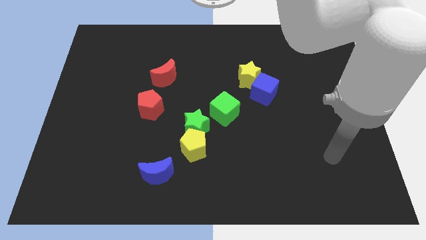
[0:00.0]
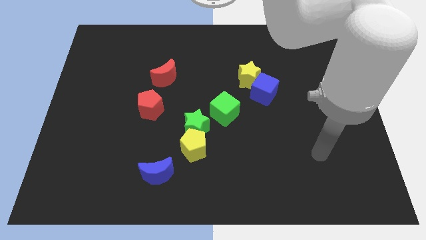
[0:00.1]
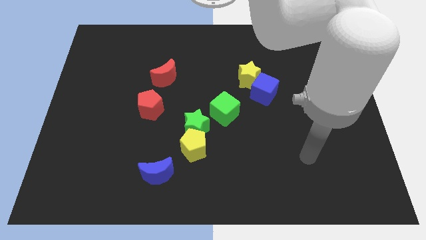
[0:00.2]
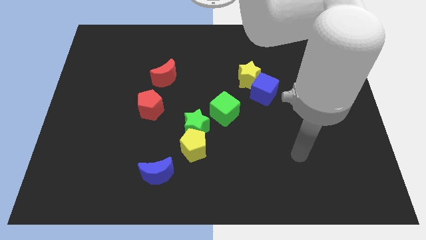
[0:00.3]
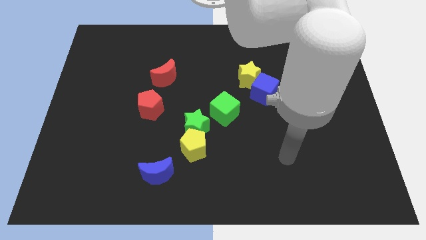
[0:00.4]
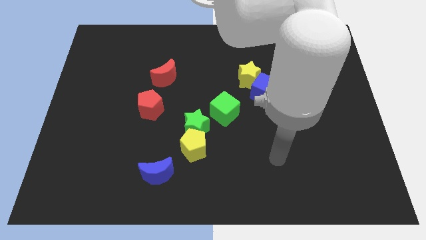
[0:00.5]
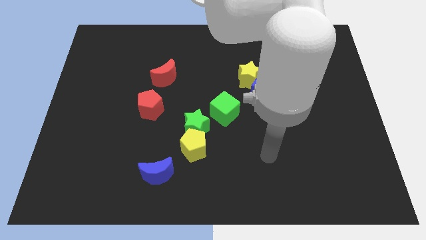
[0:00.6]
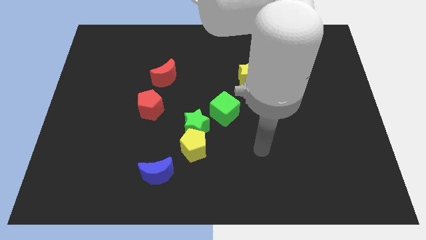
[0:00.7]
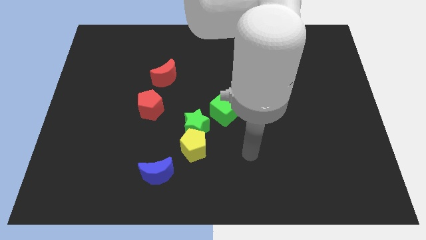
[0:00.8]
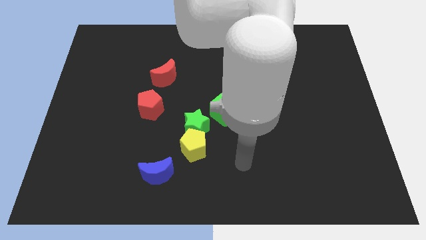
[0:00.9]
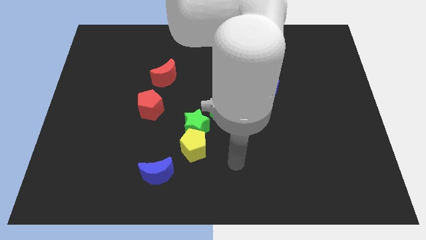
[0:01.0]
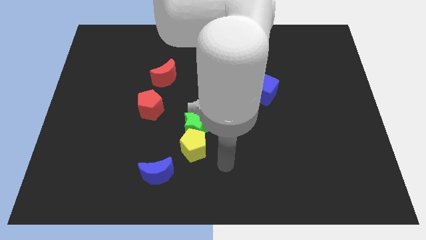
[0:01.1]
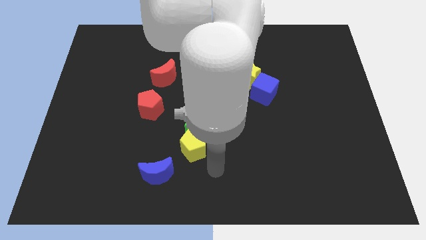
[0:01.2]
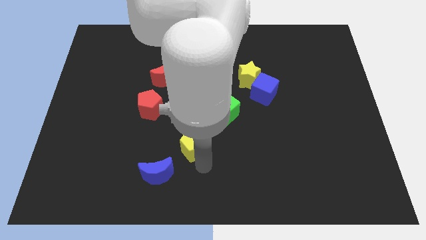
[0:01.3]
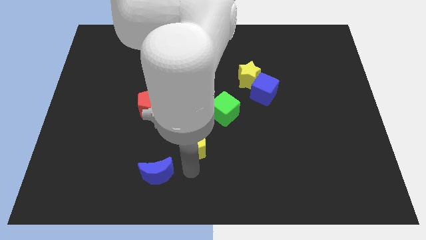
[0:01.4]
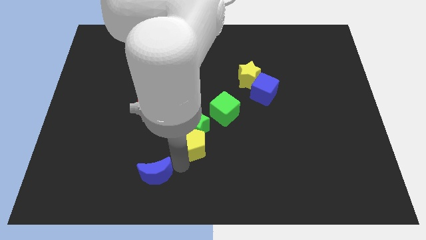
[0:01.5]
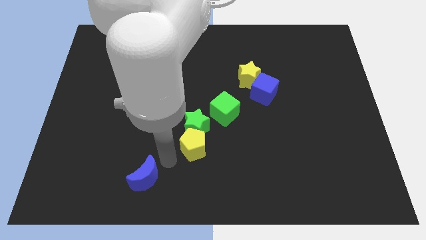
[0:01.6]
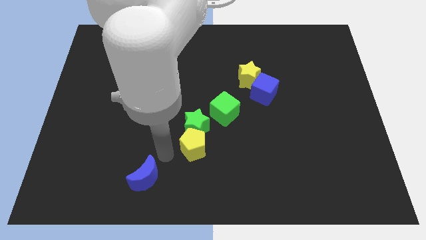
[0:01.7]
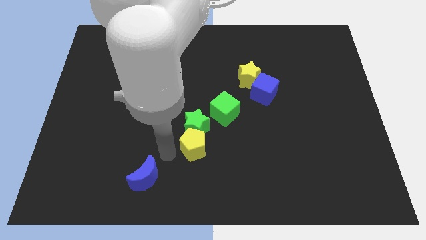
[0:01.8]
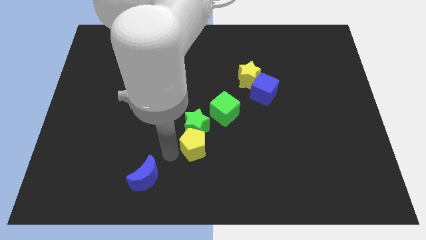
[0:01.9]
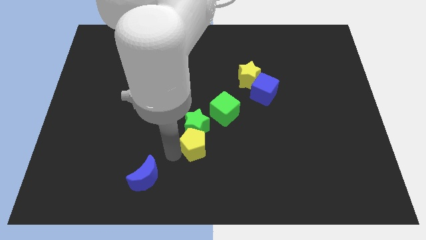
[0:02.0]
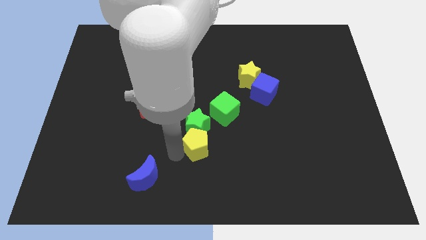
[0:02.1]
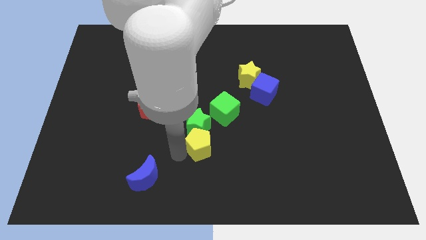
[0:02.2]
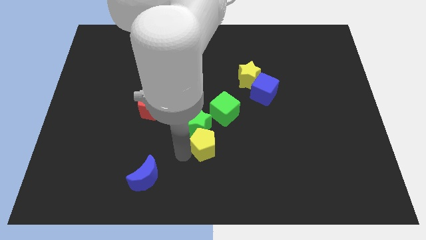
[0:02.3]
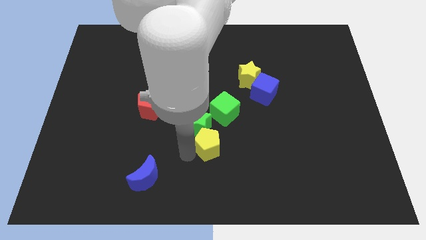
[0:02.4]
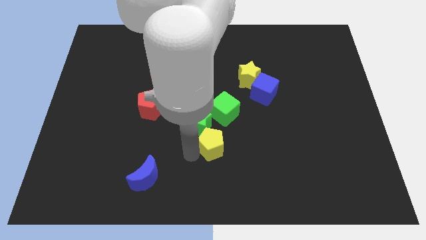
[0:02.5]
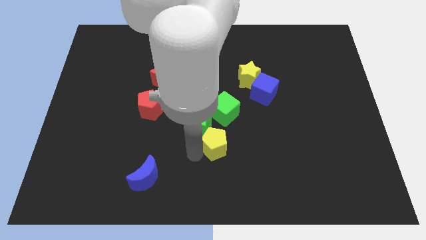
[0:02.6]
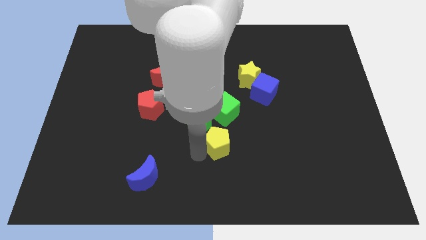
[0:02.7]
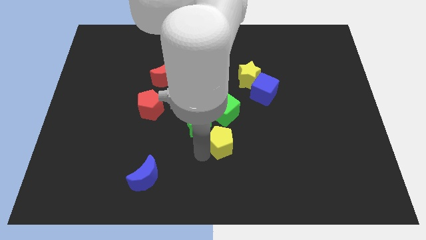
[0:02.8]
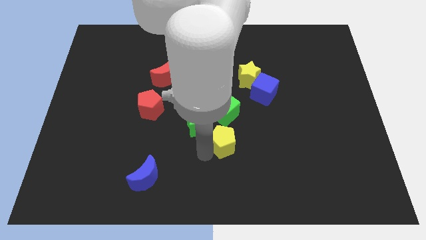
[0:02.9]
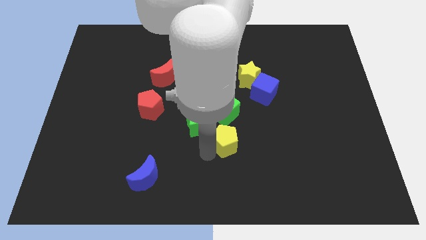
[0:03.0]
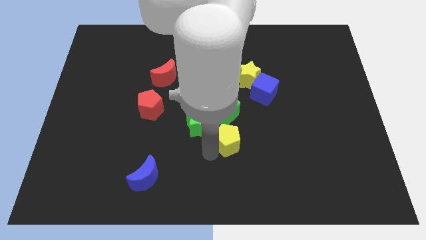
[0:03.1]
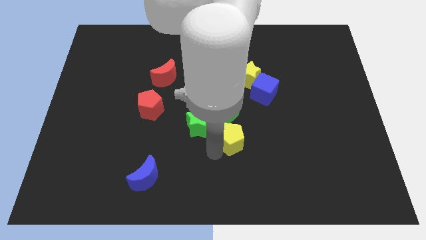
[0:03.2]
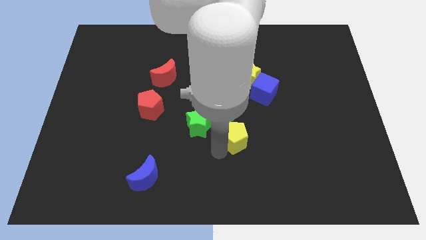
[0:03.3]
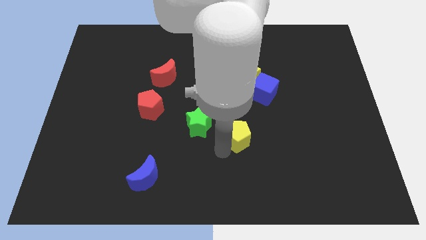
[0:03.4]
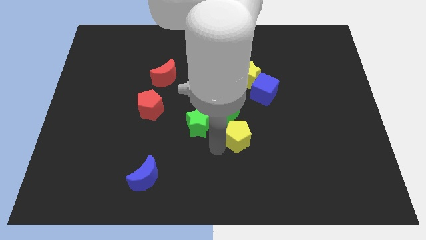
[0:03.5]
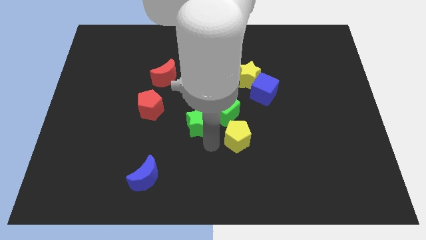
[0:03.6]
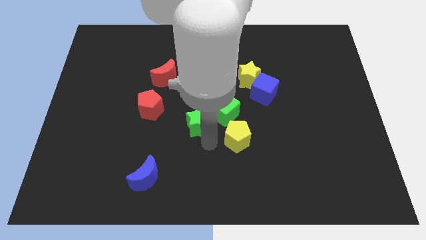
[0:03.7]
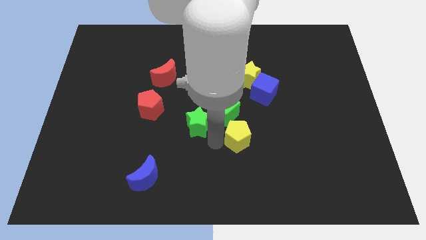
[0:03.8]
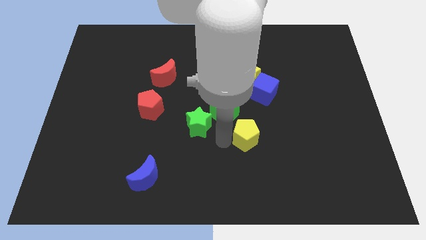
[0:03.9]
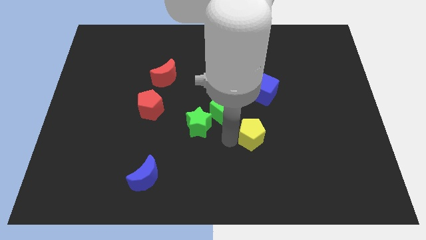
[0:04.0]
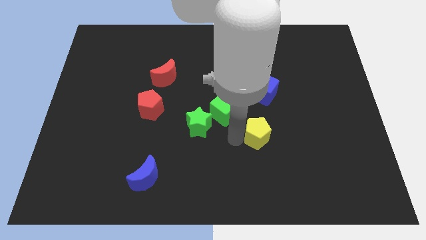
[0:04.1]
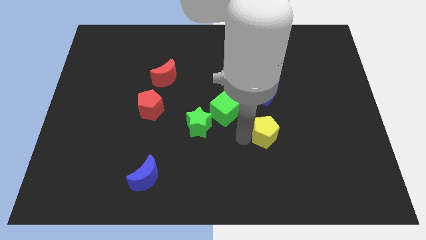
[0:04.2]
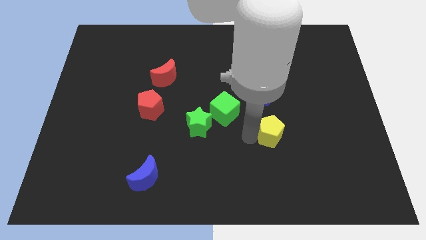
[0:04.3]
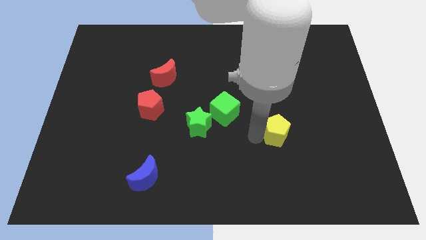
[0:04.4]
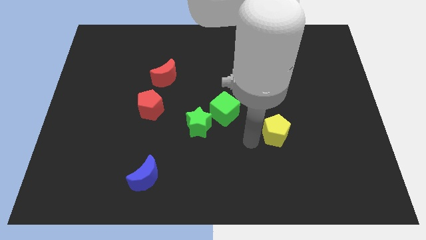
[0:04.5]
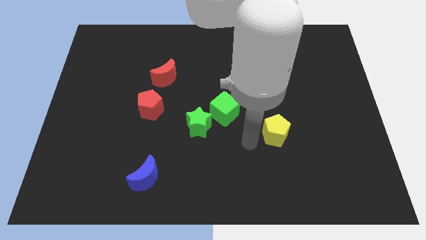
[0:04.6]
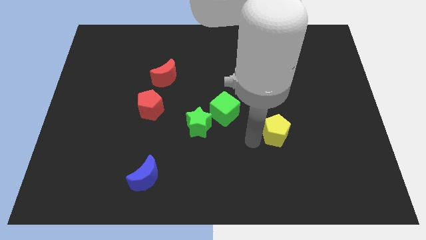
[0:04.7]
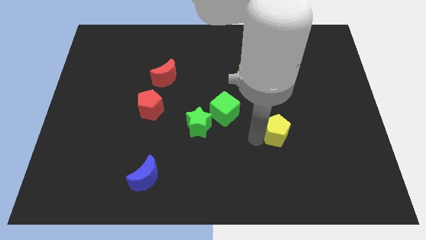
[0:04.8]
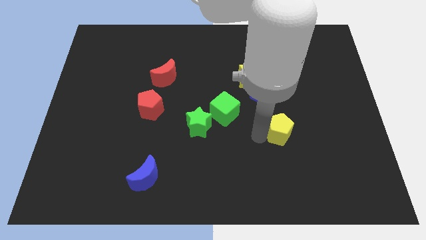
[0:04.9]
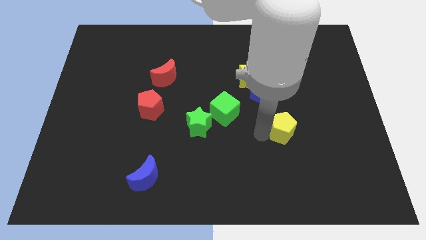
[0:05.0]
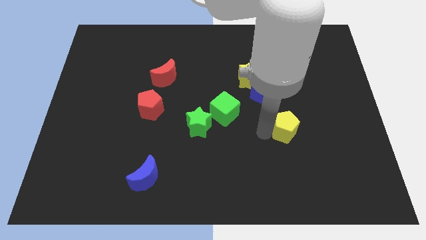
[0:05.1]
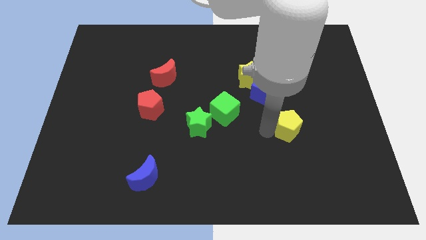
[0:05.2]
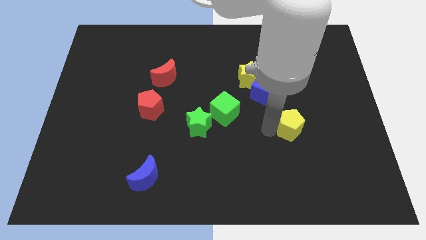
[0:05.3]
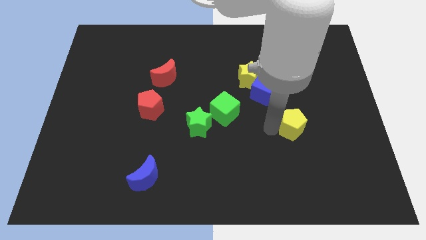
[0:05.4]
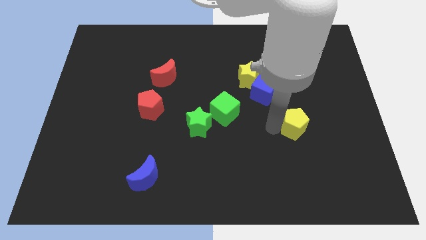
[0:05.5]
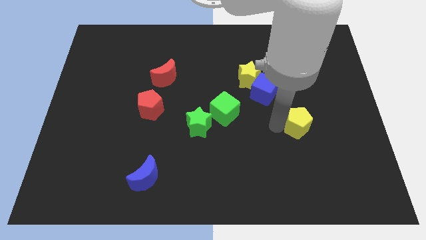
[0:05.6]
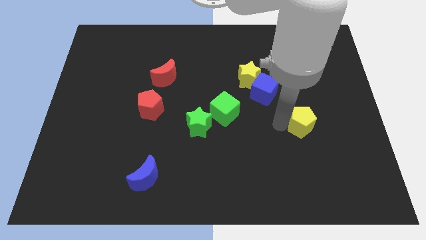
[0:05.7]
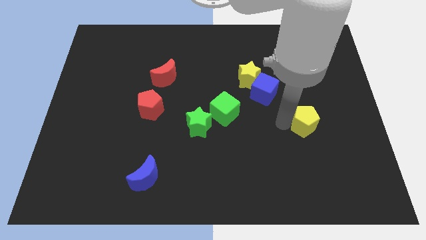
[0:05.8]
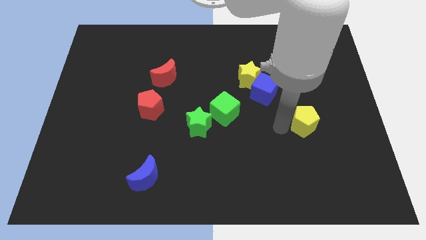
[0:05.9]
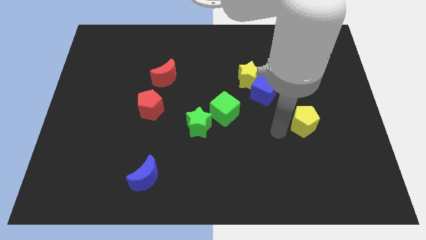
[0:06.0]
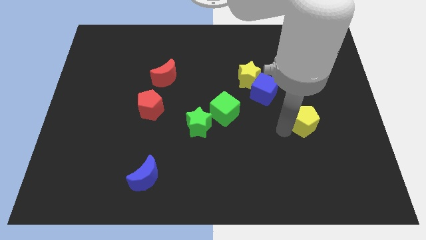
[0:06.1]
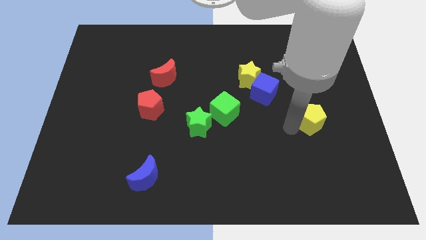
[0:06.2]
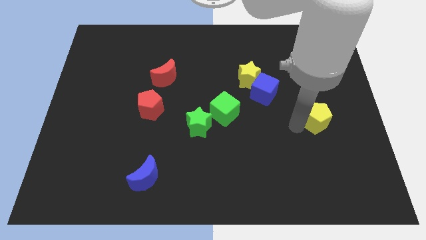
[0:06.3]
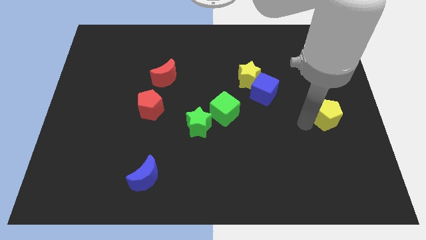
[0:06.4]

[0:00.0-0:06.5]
push the yellow pentagon to the right side of the board
